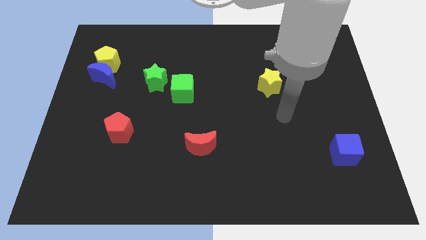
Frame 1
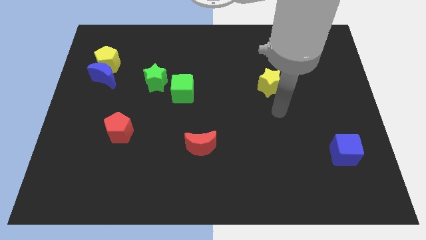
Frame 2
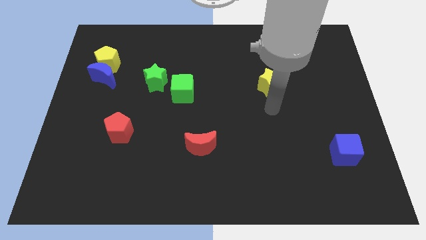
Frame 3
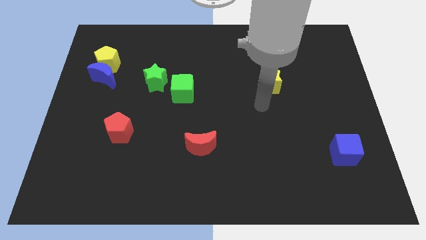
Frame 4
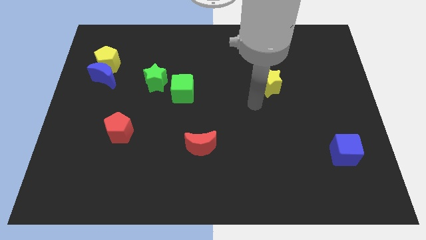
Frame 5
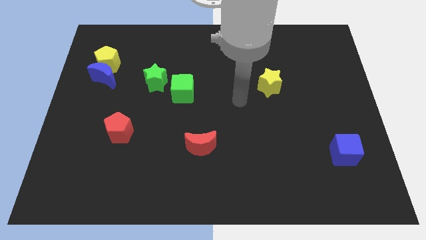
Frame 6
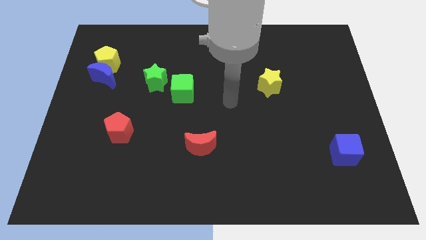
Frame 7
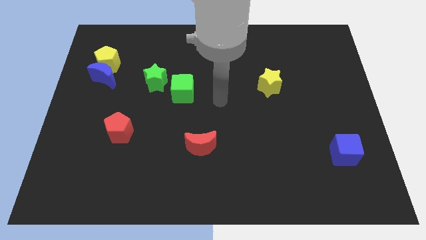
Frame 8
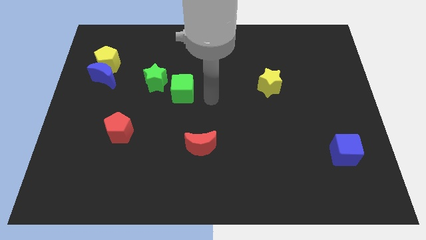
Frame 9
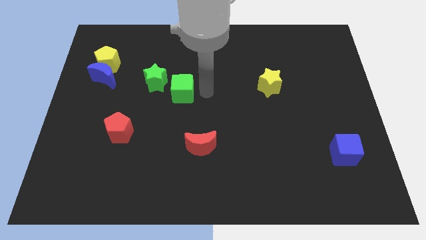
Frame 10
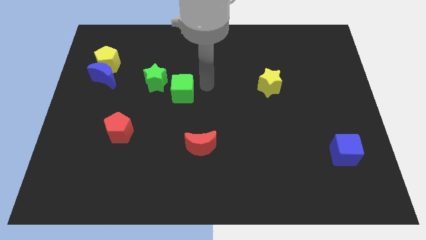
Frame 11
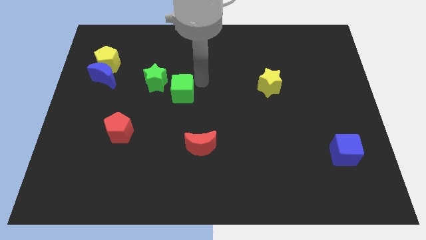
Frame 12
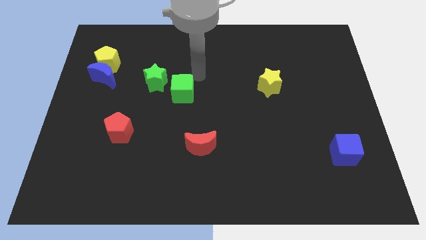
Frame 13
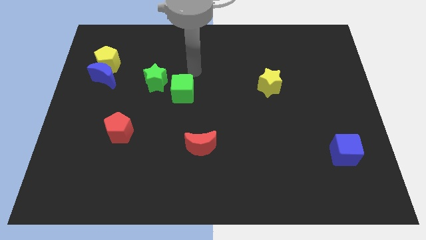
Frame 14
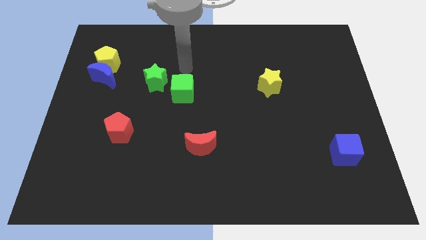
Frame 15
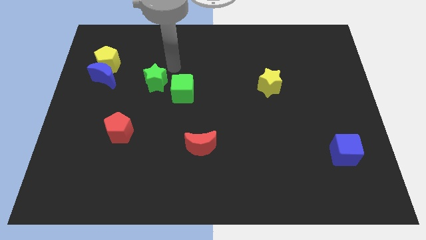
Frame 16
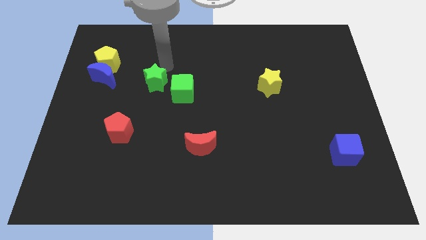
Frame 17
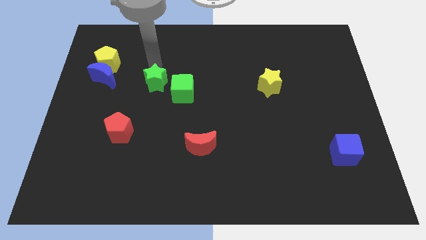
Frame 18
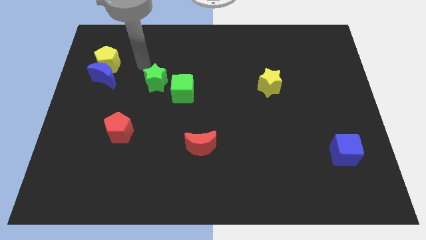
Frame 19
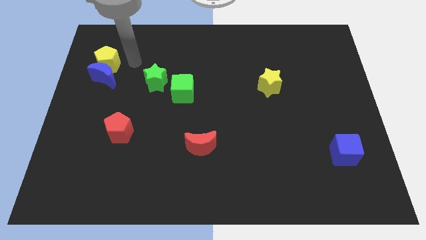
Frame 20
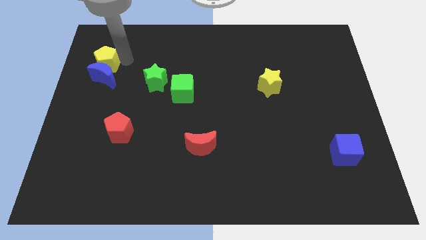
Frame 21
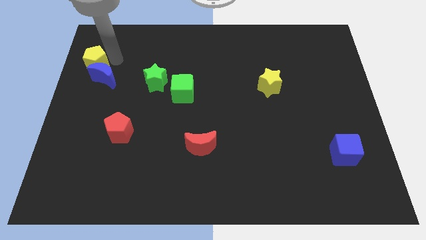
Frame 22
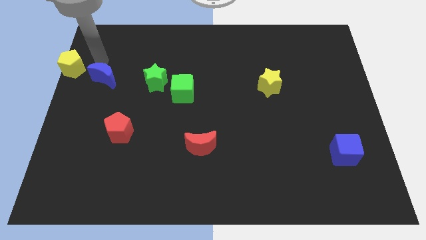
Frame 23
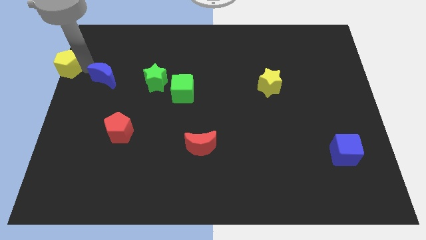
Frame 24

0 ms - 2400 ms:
pull the blue moon apart from the yellow pentagon

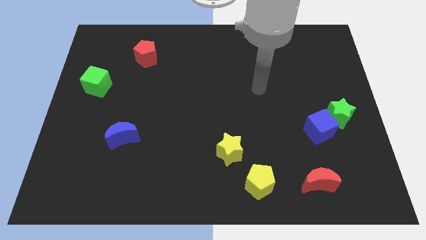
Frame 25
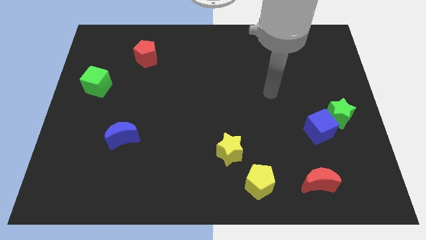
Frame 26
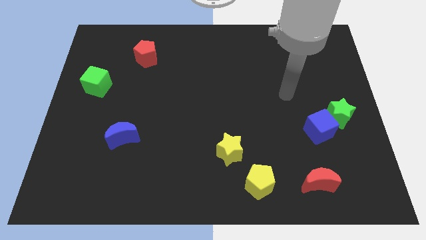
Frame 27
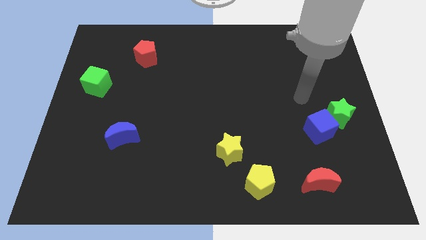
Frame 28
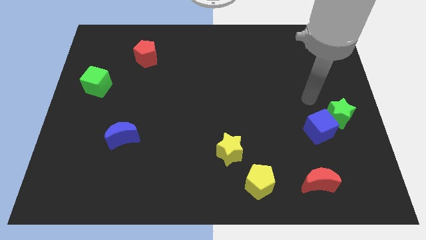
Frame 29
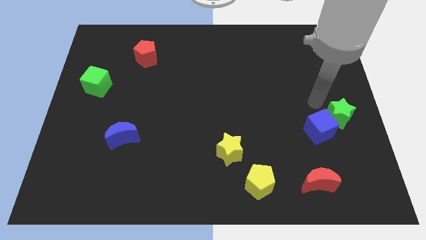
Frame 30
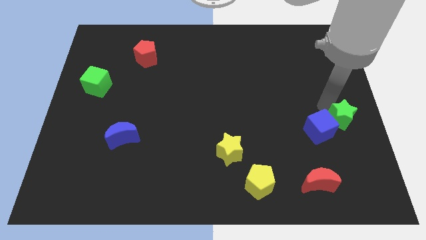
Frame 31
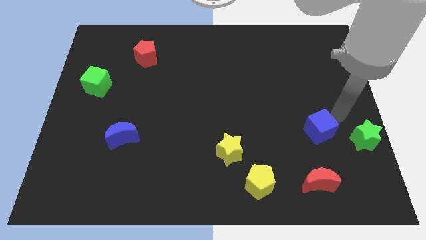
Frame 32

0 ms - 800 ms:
separate the blue cube from the green star

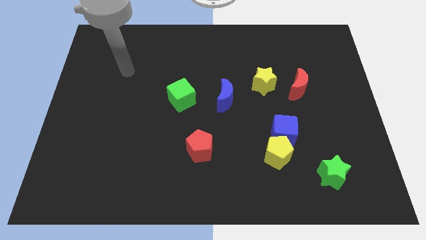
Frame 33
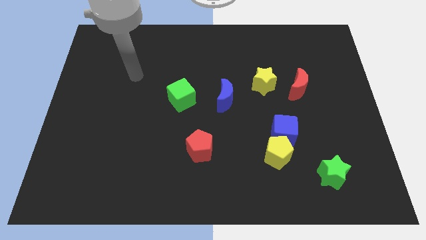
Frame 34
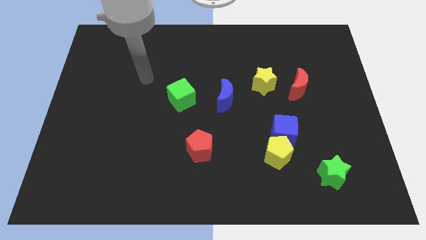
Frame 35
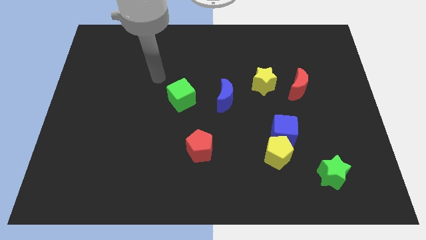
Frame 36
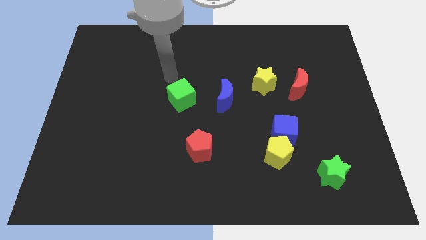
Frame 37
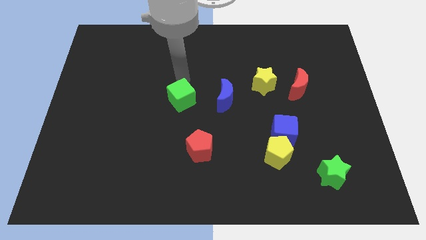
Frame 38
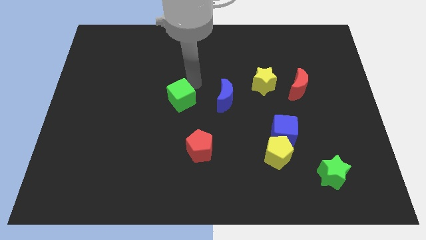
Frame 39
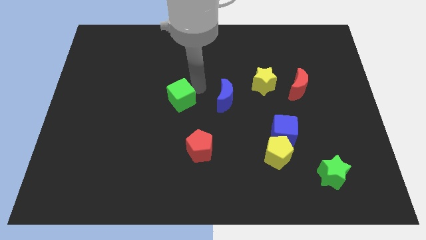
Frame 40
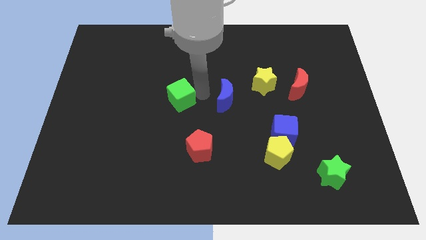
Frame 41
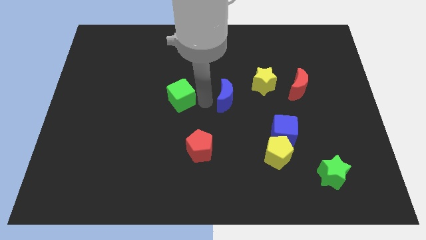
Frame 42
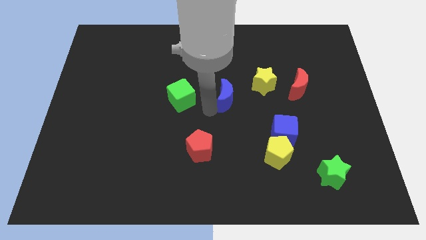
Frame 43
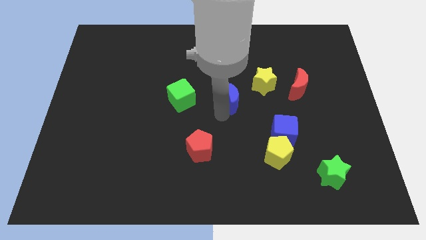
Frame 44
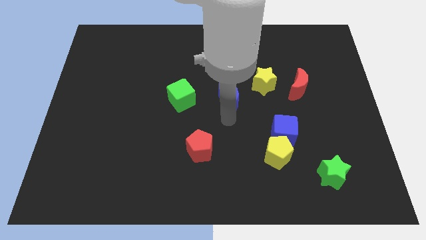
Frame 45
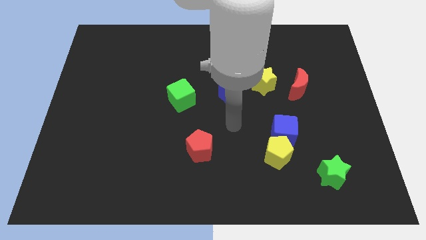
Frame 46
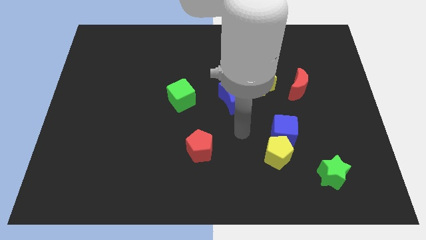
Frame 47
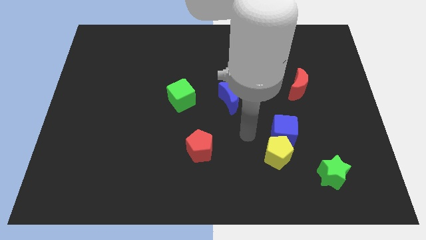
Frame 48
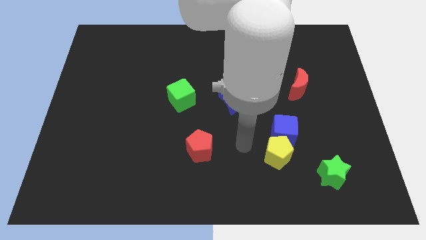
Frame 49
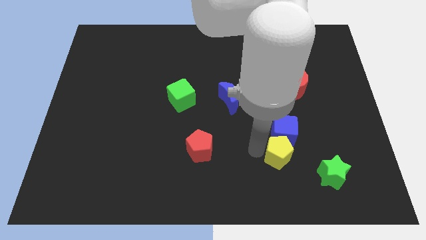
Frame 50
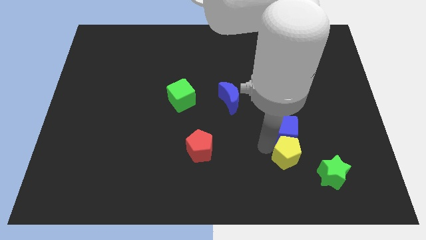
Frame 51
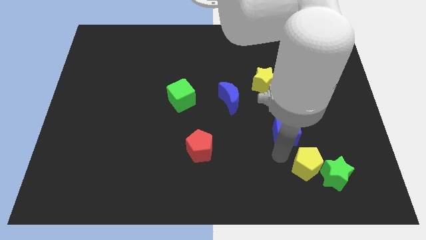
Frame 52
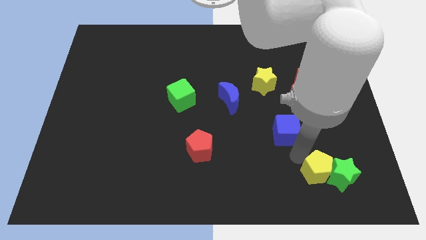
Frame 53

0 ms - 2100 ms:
pull the blue cube apart from the yellow pentagon

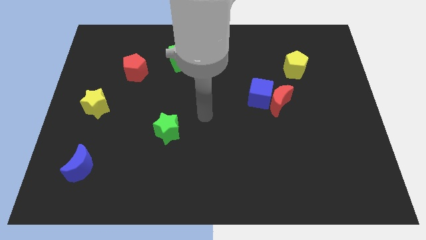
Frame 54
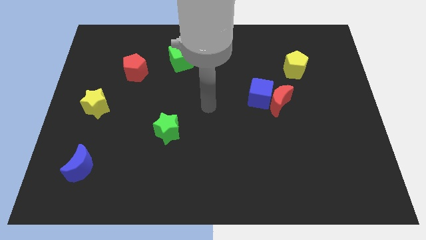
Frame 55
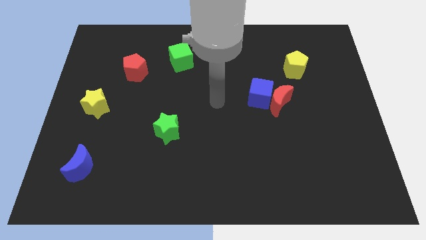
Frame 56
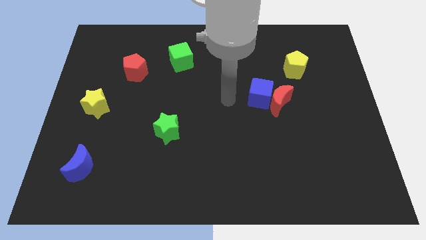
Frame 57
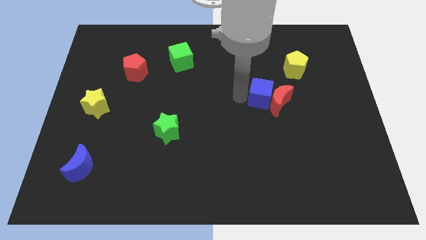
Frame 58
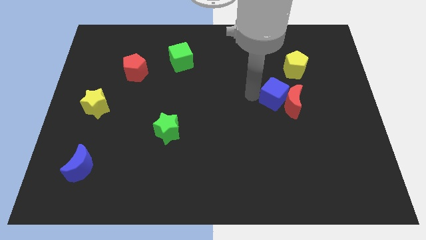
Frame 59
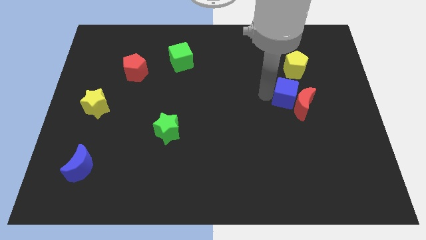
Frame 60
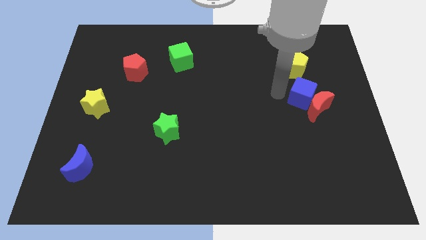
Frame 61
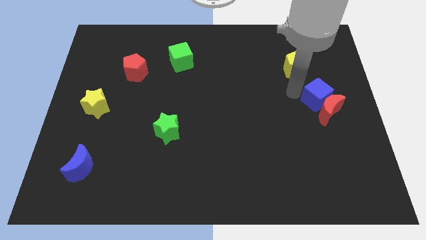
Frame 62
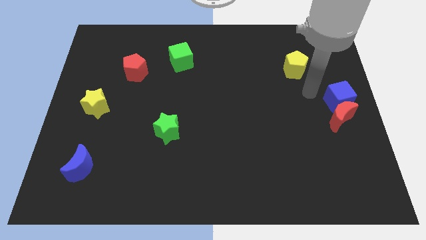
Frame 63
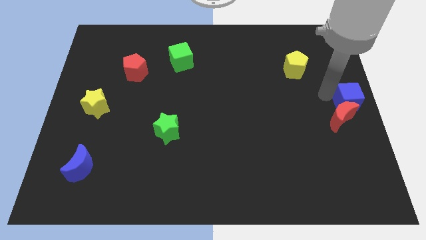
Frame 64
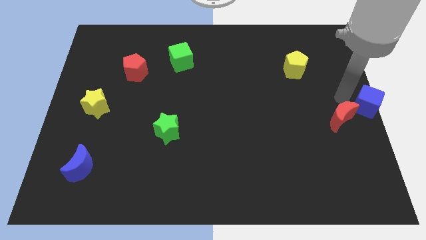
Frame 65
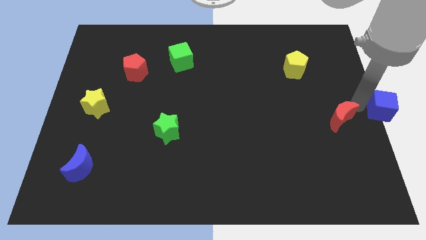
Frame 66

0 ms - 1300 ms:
move the red moon away from the blue cube

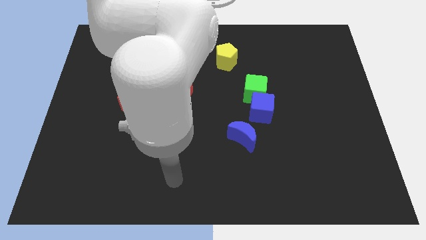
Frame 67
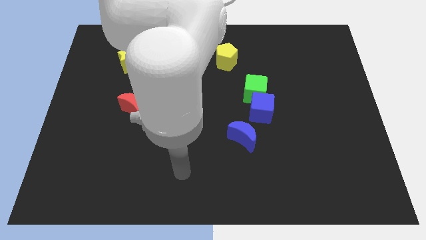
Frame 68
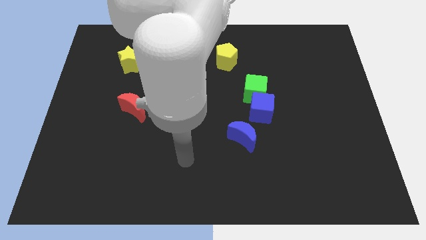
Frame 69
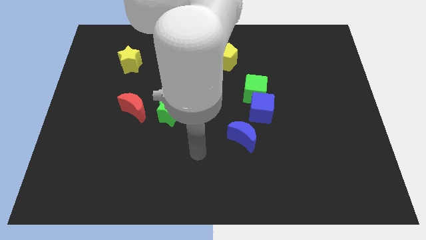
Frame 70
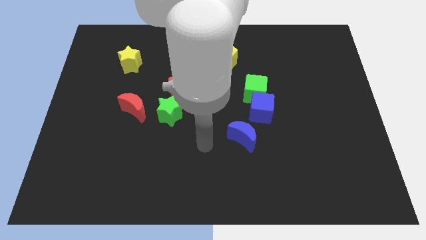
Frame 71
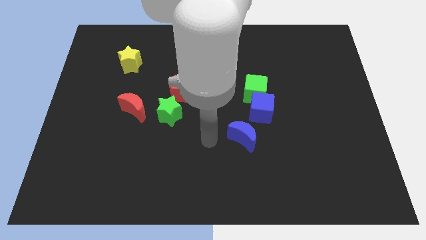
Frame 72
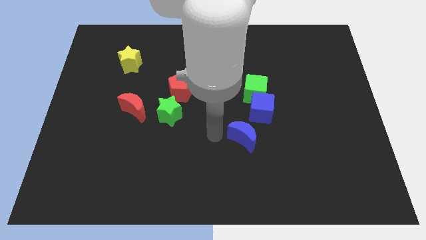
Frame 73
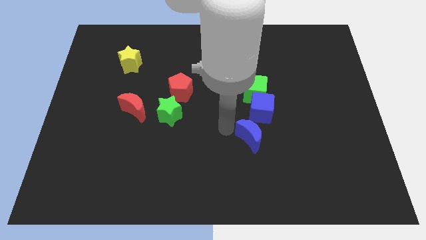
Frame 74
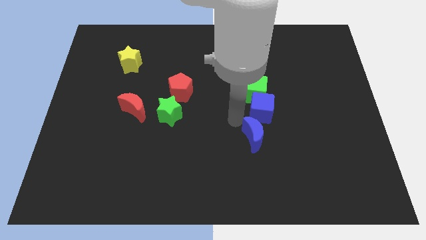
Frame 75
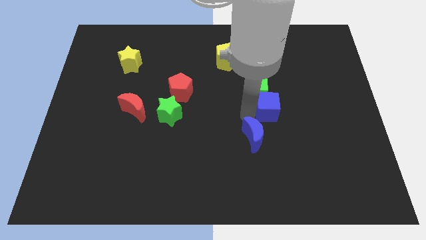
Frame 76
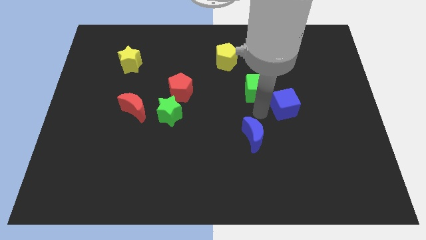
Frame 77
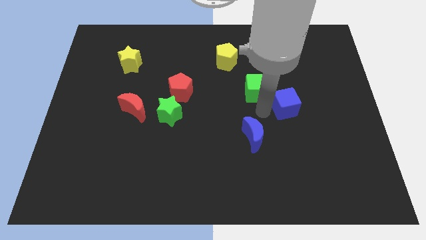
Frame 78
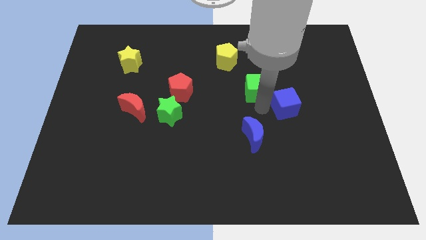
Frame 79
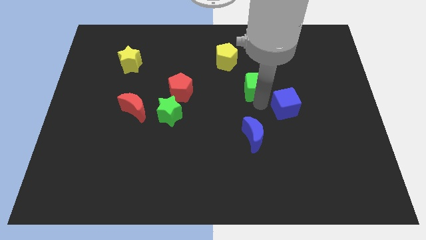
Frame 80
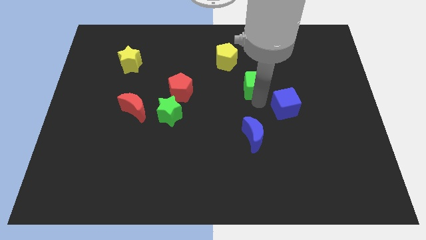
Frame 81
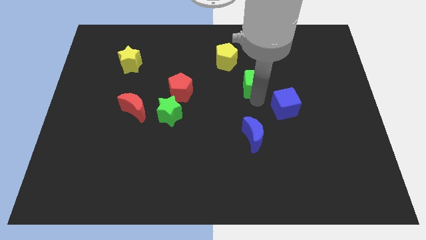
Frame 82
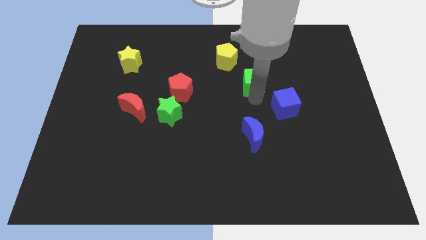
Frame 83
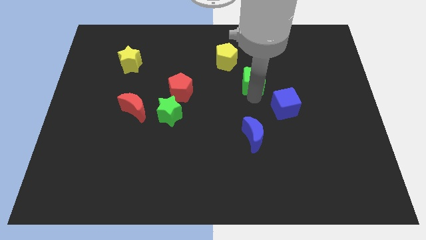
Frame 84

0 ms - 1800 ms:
separate the green cube from the blue cube

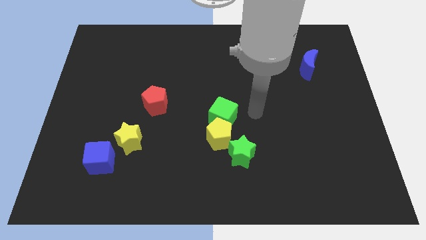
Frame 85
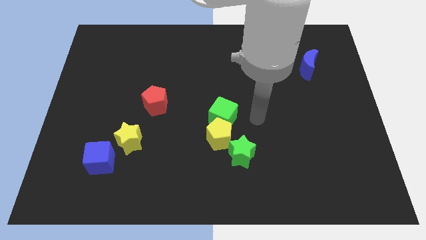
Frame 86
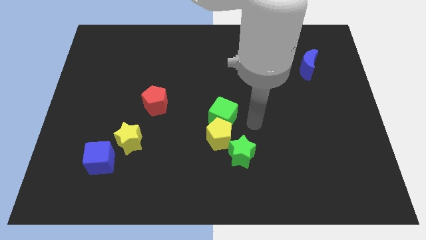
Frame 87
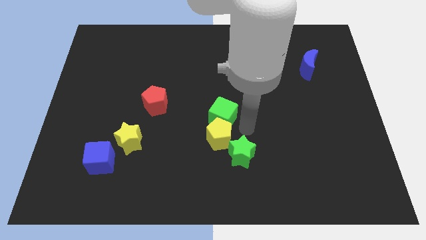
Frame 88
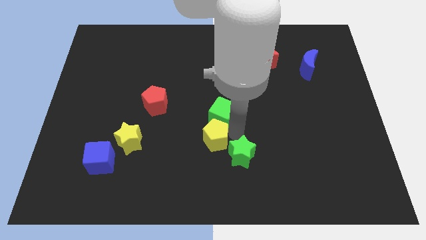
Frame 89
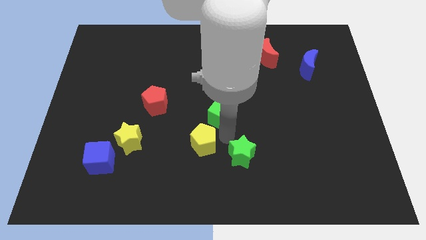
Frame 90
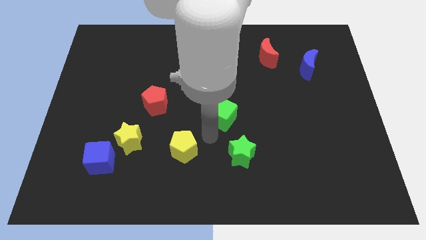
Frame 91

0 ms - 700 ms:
move the green cube away from the yellow pentagon

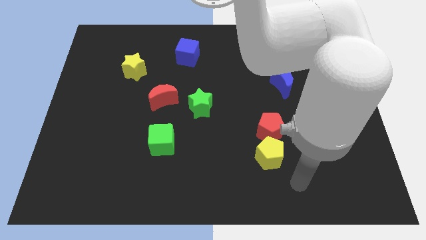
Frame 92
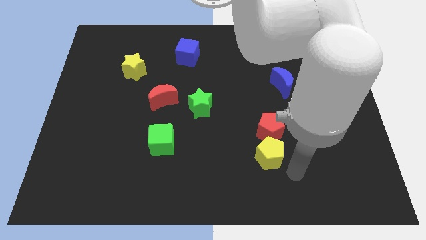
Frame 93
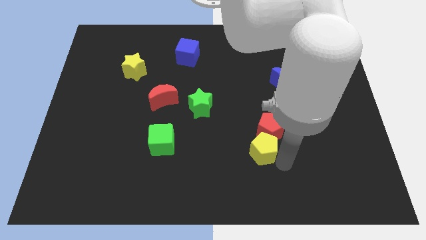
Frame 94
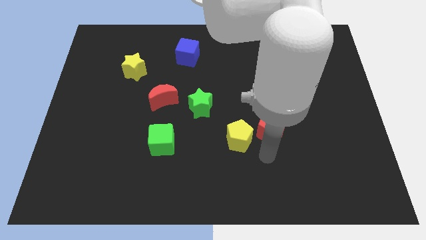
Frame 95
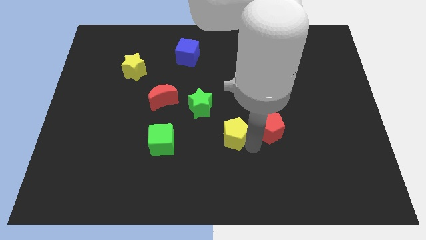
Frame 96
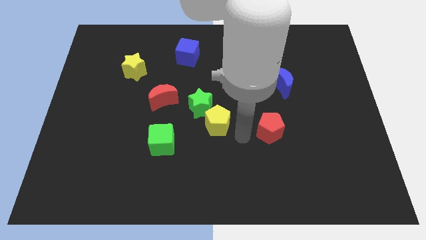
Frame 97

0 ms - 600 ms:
separate the red pentagon from the yellow pentagon
